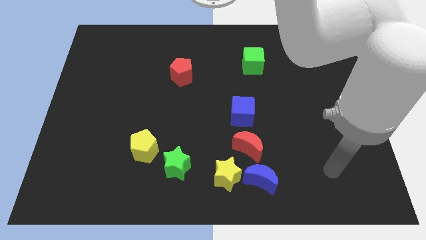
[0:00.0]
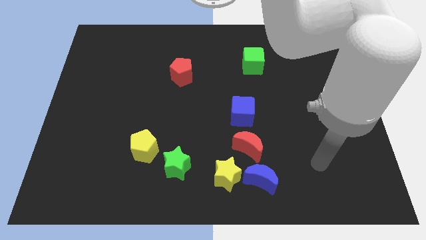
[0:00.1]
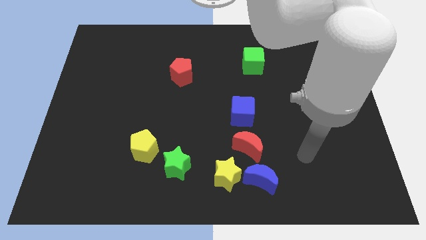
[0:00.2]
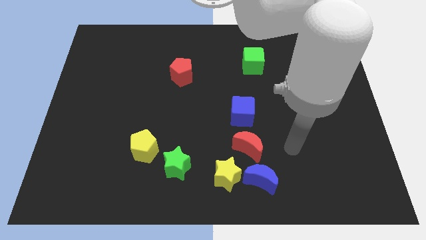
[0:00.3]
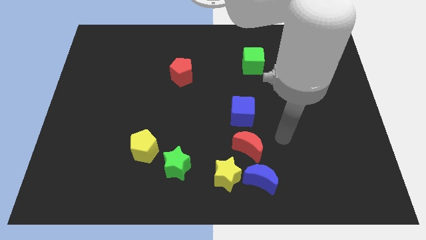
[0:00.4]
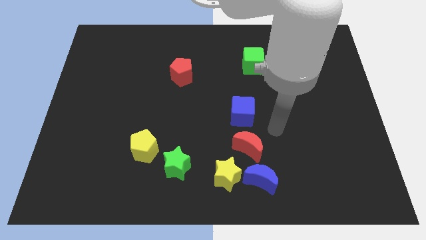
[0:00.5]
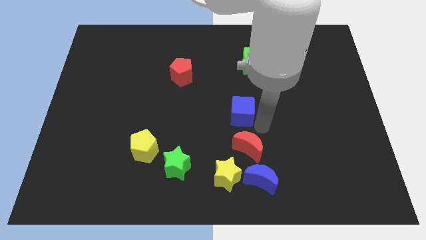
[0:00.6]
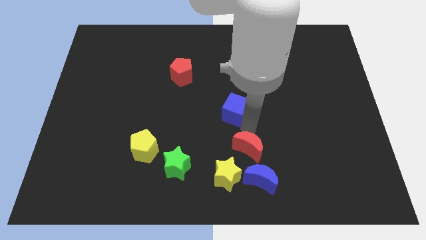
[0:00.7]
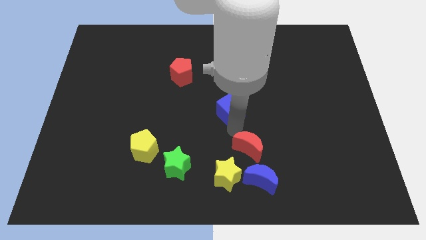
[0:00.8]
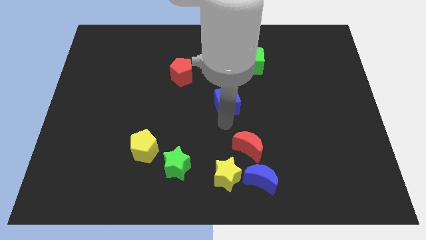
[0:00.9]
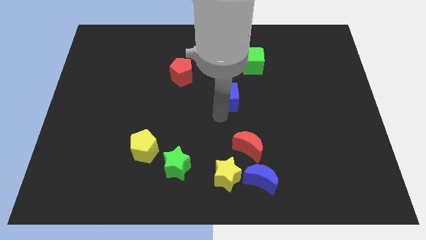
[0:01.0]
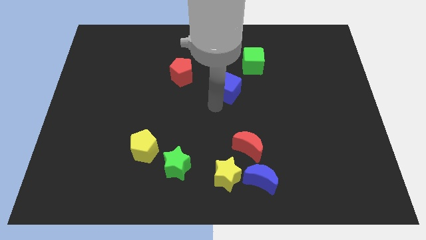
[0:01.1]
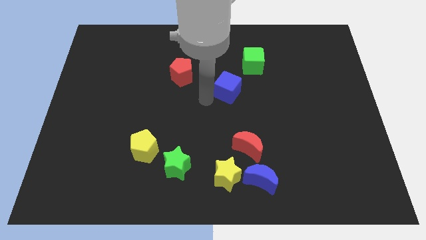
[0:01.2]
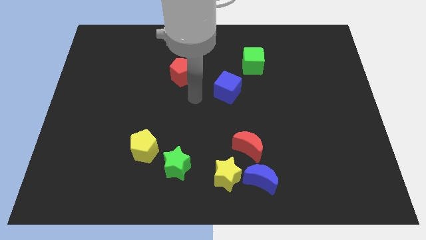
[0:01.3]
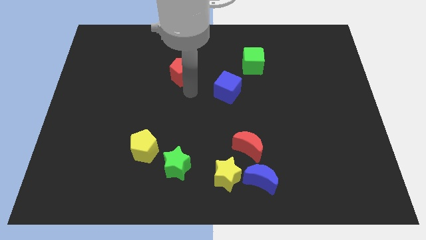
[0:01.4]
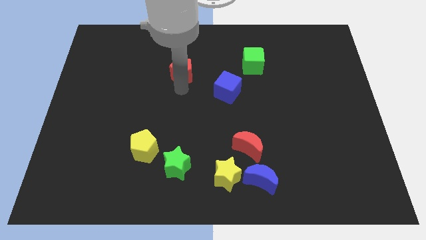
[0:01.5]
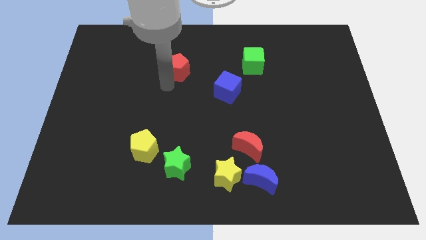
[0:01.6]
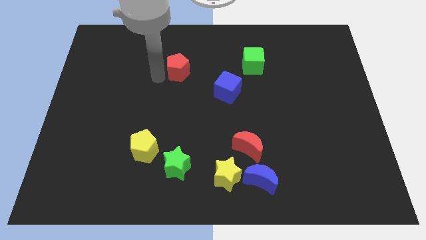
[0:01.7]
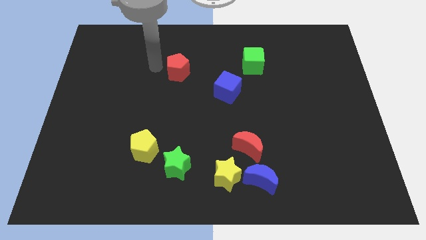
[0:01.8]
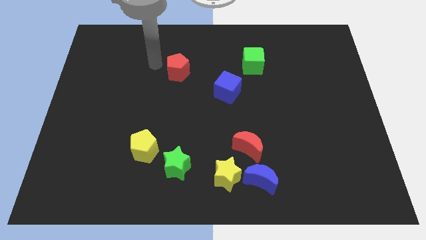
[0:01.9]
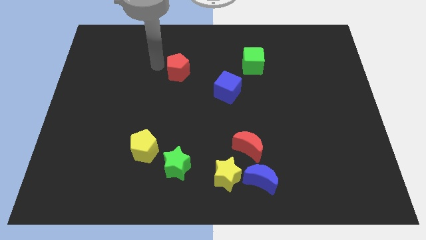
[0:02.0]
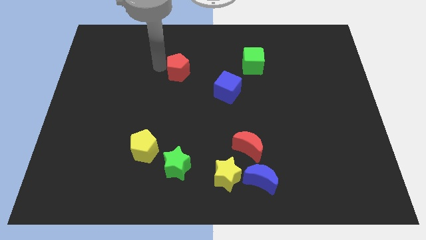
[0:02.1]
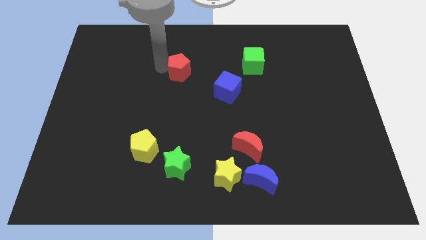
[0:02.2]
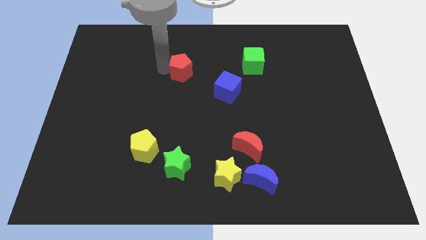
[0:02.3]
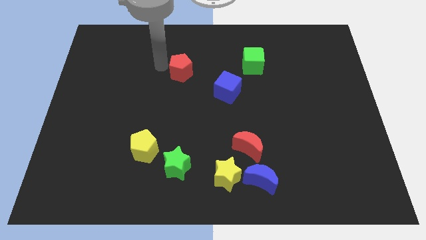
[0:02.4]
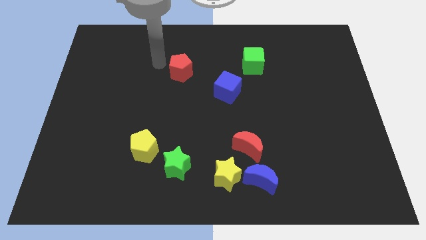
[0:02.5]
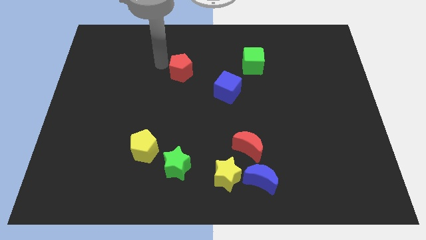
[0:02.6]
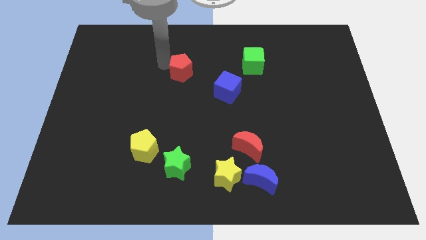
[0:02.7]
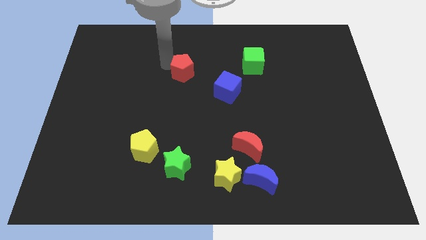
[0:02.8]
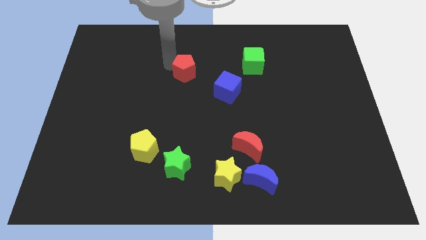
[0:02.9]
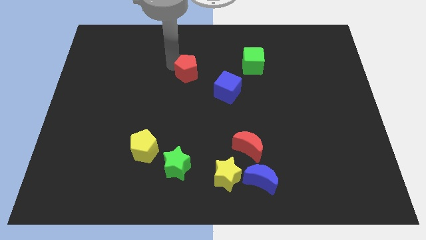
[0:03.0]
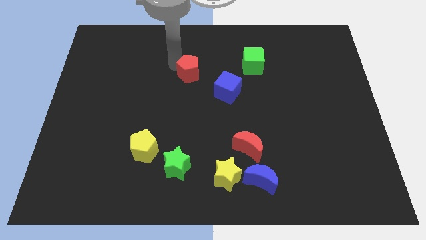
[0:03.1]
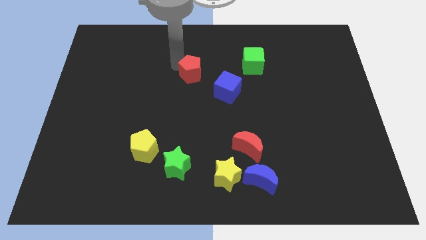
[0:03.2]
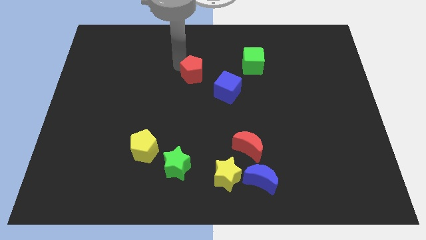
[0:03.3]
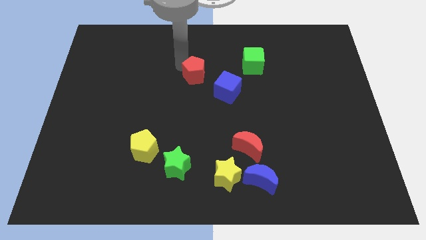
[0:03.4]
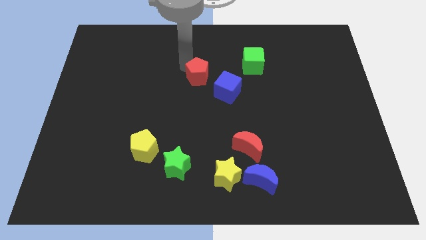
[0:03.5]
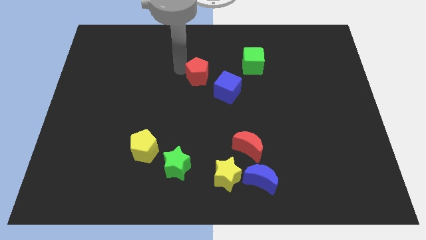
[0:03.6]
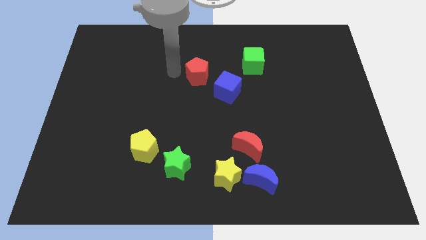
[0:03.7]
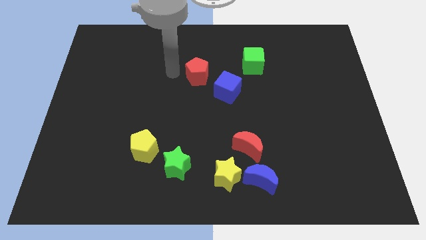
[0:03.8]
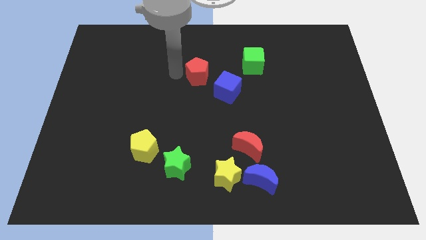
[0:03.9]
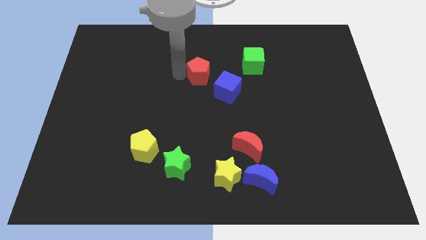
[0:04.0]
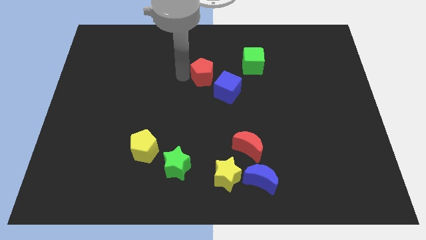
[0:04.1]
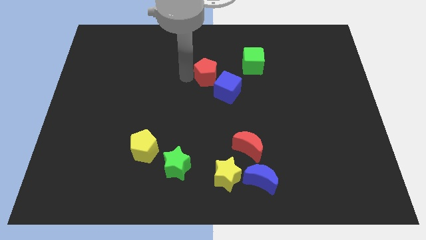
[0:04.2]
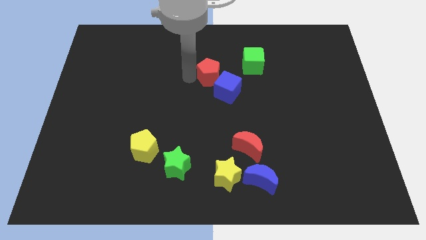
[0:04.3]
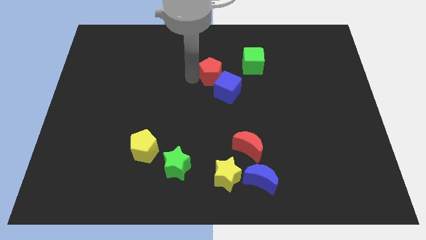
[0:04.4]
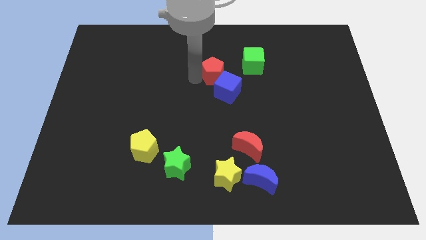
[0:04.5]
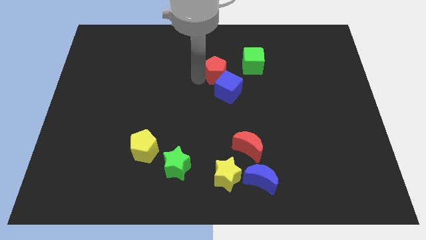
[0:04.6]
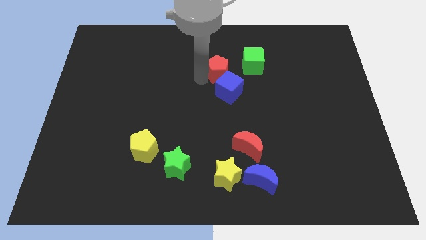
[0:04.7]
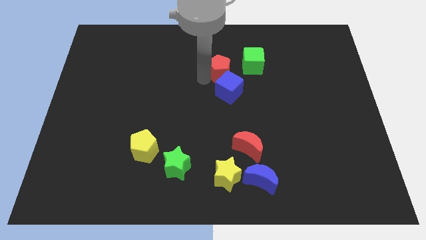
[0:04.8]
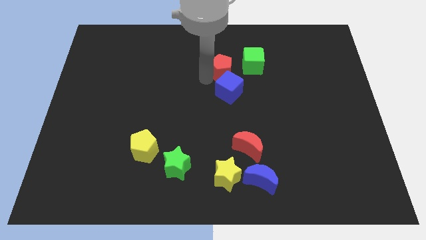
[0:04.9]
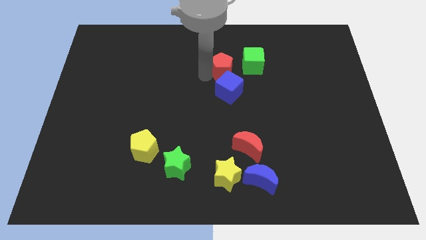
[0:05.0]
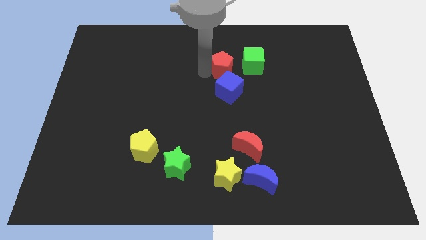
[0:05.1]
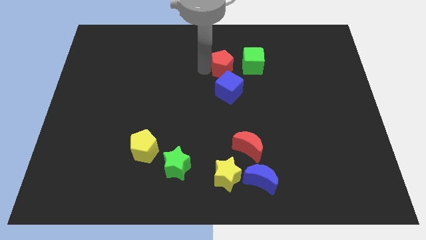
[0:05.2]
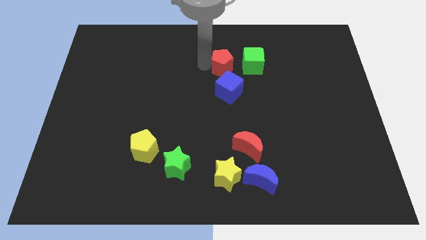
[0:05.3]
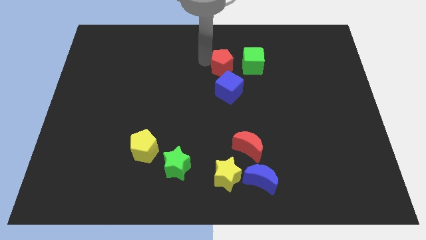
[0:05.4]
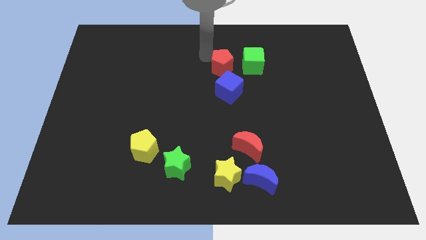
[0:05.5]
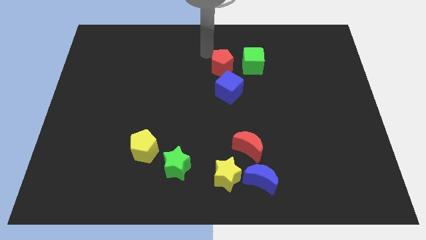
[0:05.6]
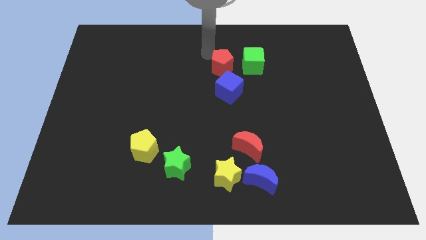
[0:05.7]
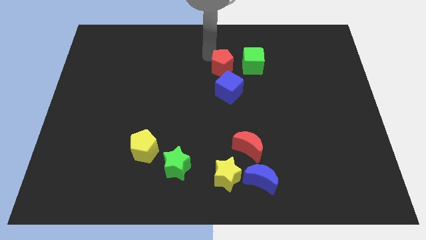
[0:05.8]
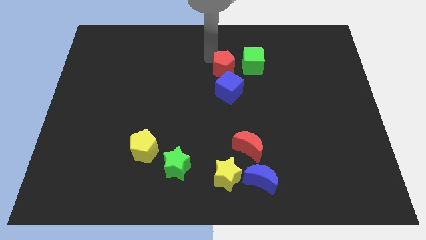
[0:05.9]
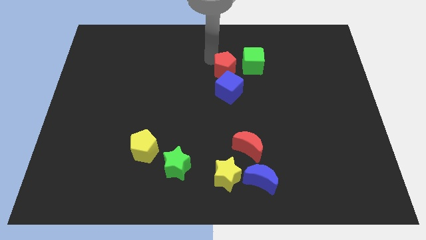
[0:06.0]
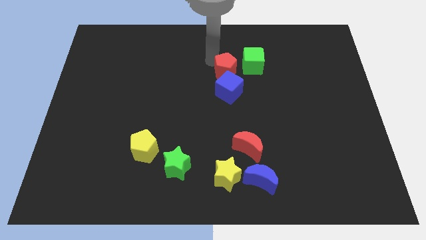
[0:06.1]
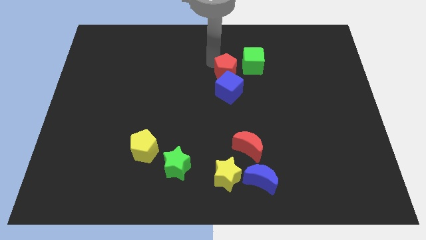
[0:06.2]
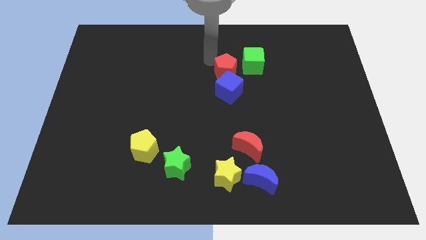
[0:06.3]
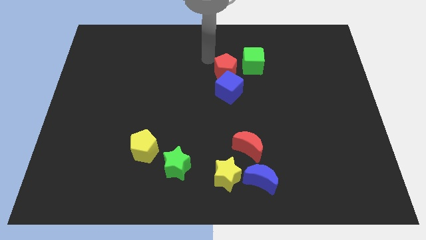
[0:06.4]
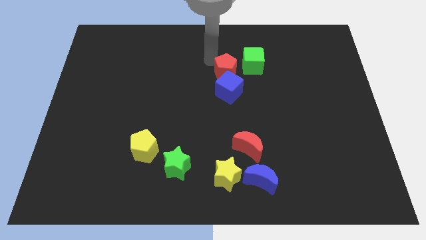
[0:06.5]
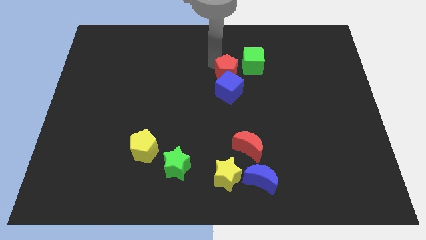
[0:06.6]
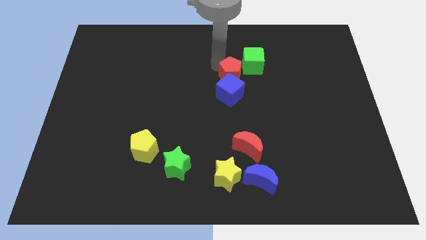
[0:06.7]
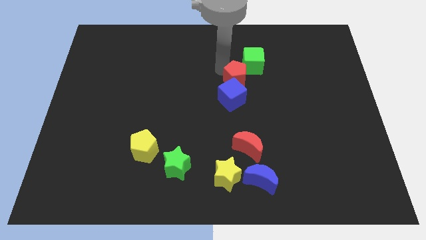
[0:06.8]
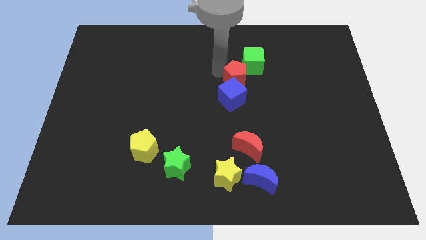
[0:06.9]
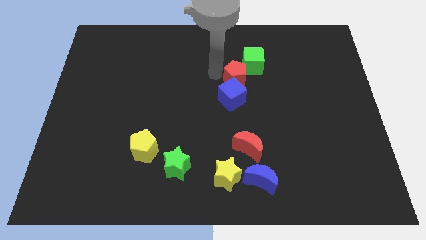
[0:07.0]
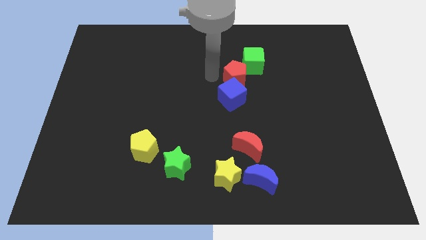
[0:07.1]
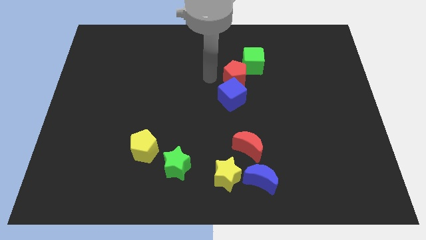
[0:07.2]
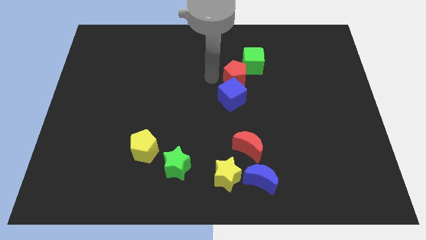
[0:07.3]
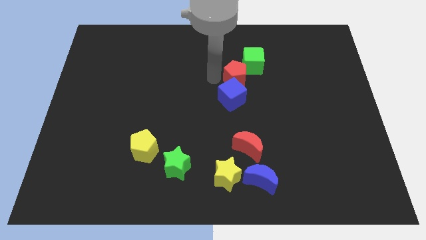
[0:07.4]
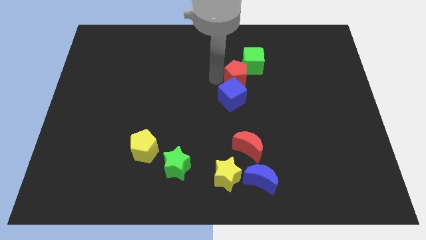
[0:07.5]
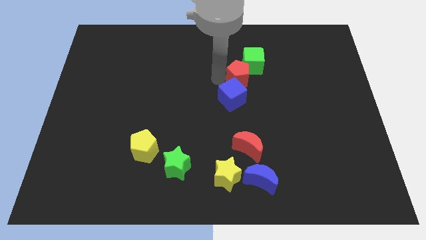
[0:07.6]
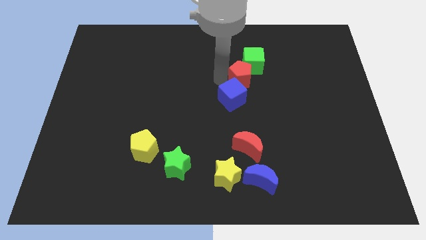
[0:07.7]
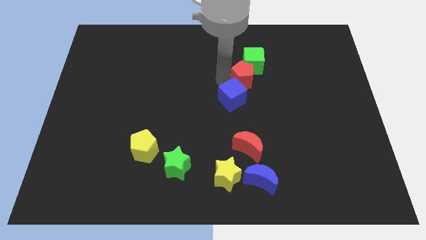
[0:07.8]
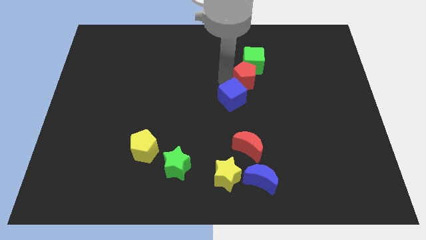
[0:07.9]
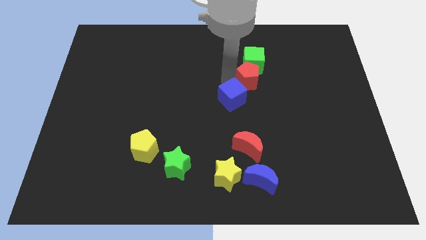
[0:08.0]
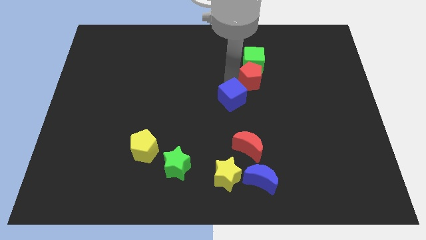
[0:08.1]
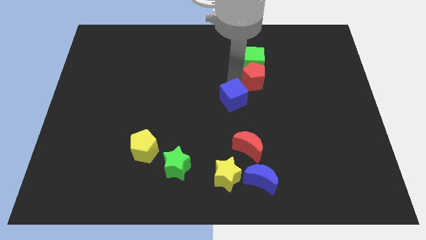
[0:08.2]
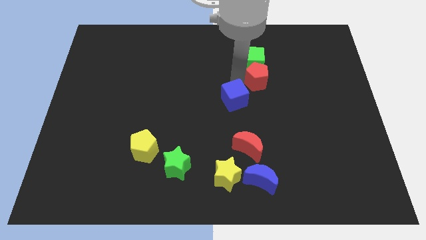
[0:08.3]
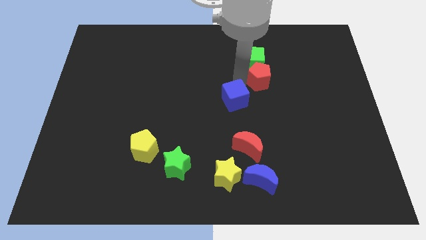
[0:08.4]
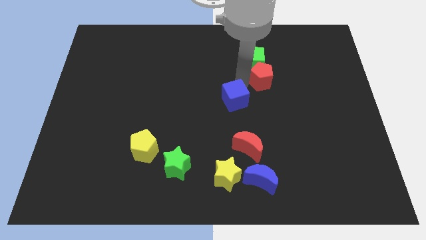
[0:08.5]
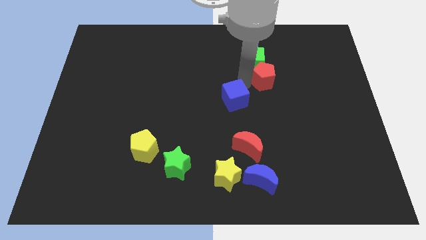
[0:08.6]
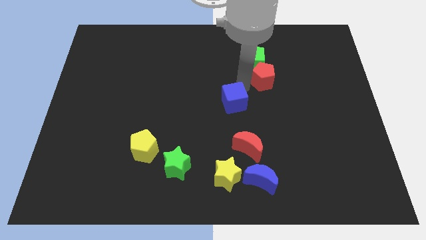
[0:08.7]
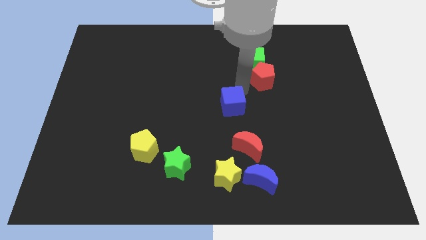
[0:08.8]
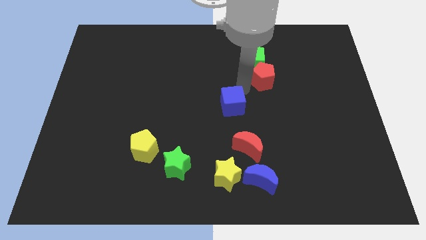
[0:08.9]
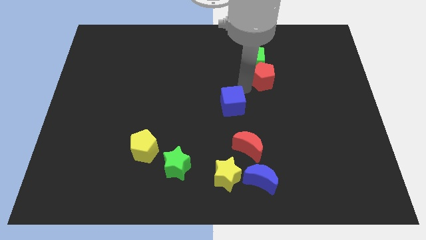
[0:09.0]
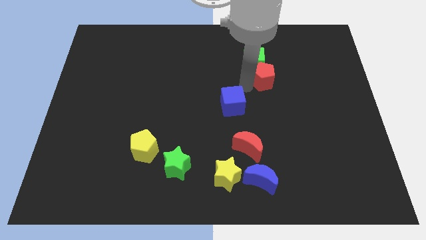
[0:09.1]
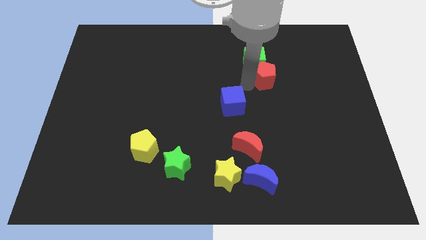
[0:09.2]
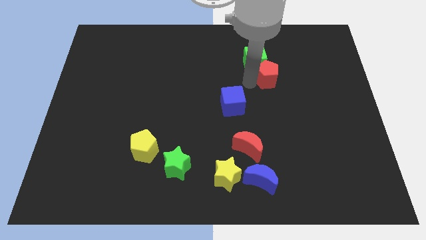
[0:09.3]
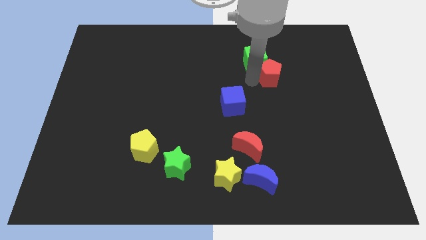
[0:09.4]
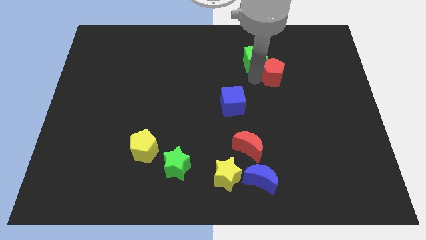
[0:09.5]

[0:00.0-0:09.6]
push the red pentagon right of the green cube
